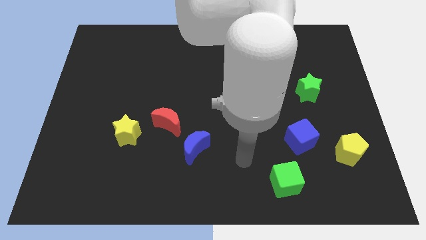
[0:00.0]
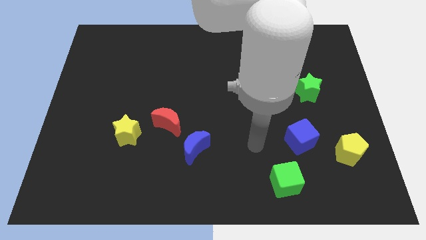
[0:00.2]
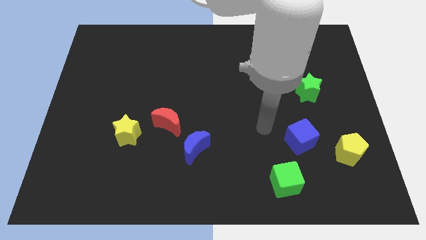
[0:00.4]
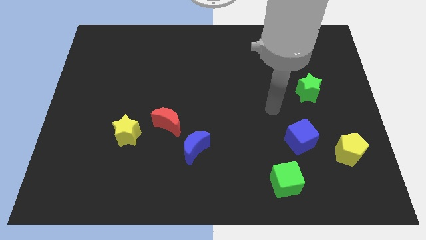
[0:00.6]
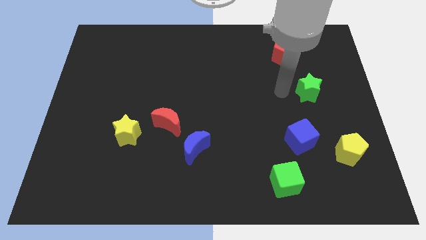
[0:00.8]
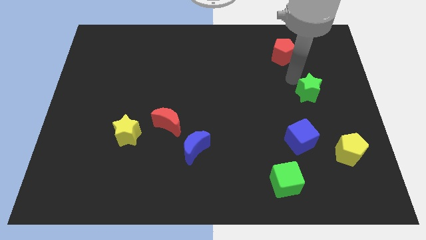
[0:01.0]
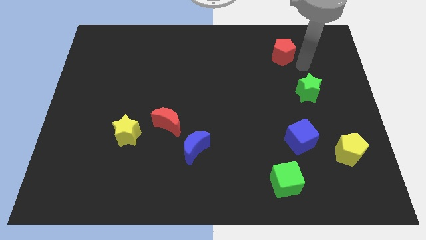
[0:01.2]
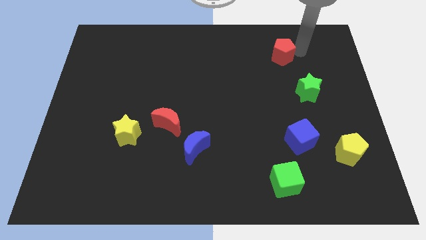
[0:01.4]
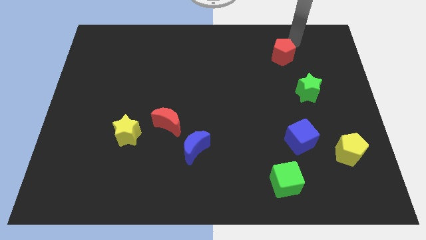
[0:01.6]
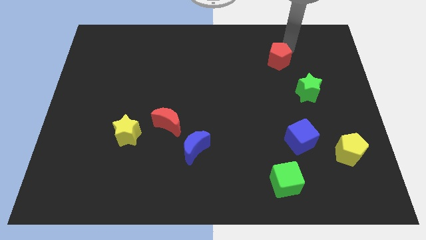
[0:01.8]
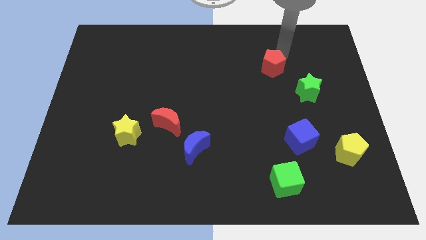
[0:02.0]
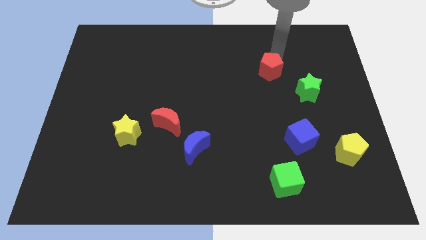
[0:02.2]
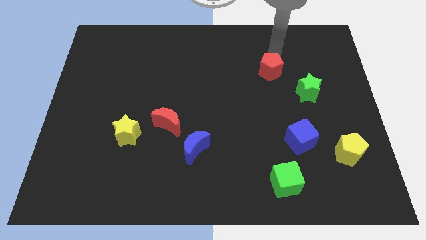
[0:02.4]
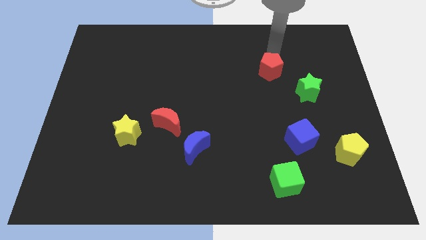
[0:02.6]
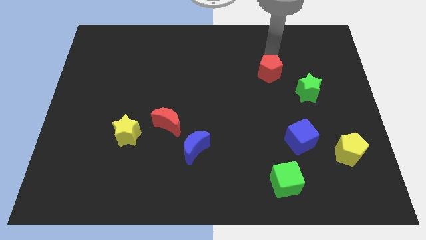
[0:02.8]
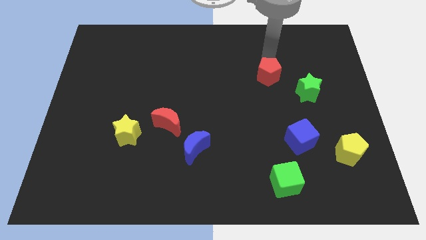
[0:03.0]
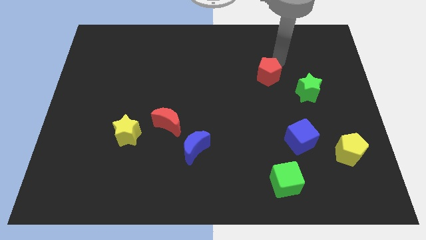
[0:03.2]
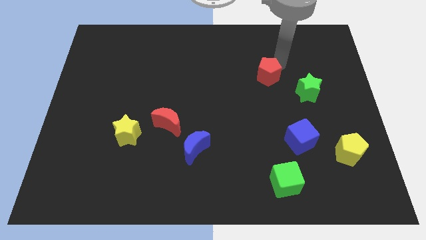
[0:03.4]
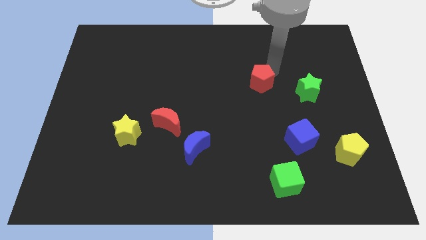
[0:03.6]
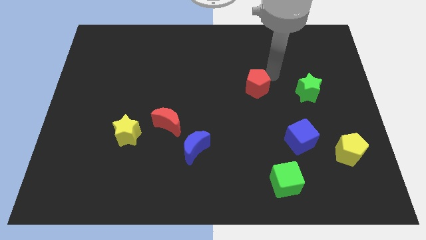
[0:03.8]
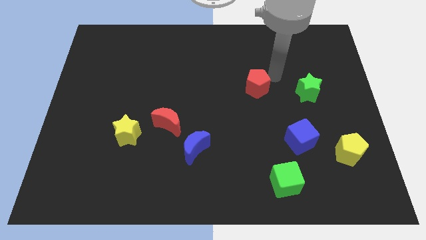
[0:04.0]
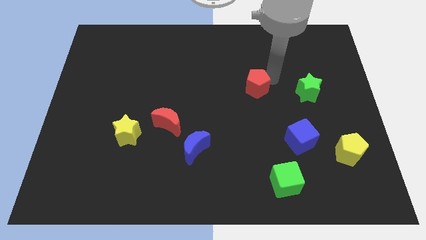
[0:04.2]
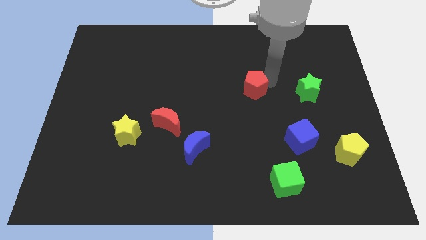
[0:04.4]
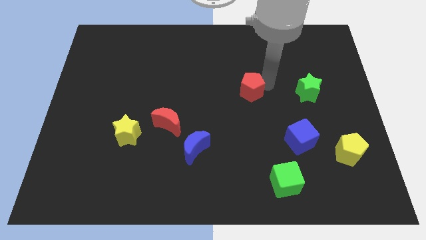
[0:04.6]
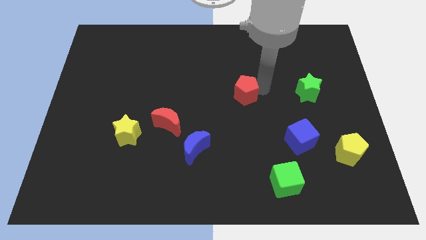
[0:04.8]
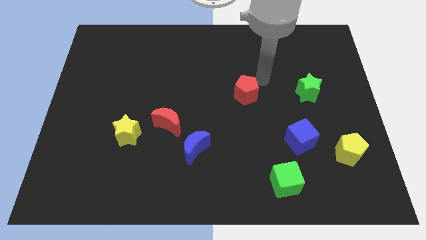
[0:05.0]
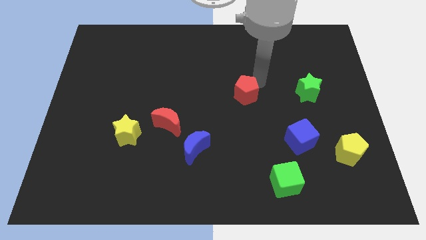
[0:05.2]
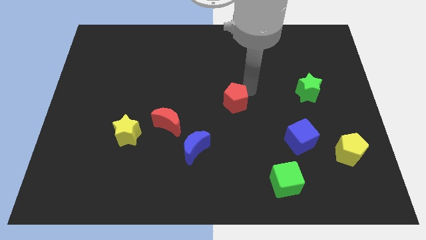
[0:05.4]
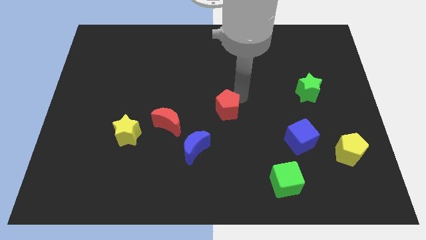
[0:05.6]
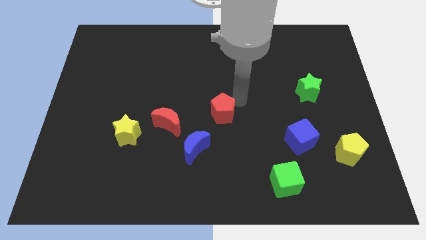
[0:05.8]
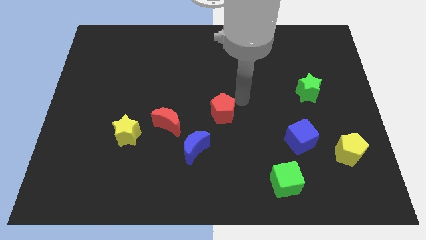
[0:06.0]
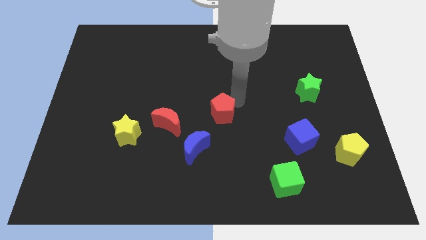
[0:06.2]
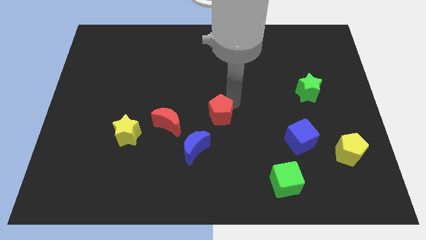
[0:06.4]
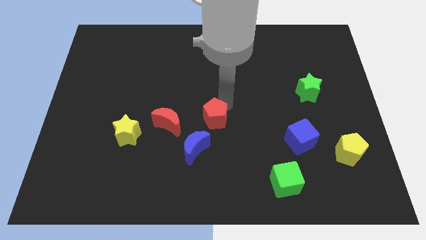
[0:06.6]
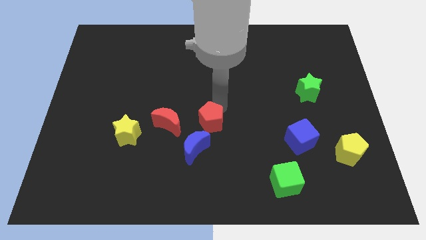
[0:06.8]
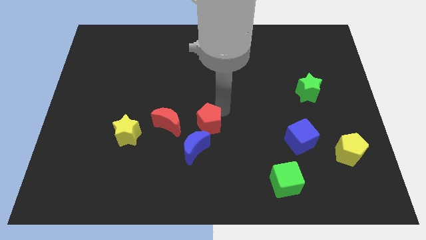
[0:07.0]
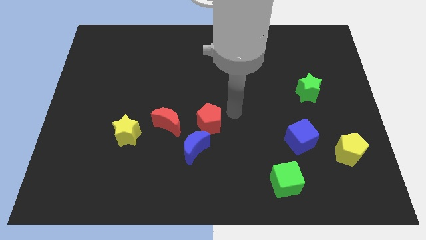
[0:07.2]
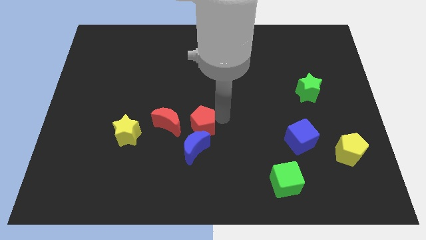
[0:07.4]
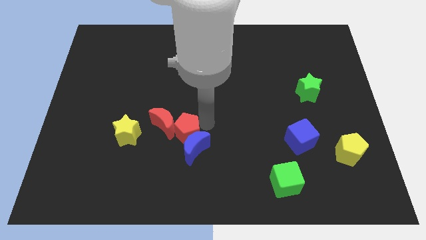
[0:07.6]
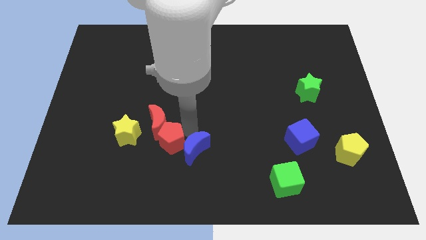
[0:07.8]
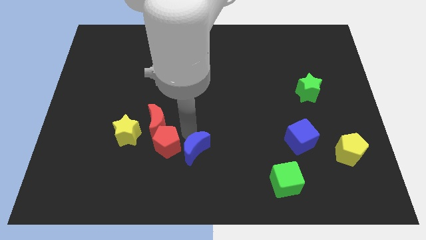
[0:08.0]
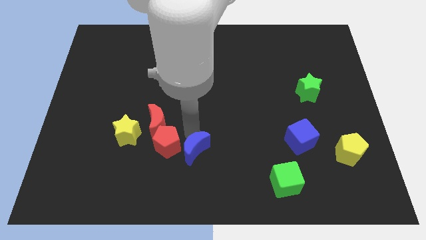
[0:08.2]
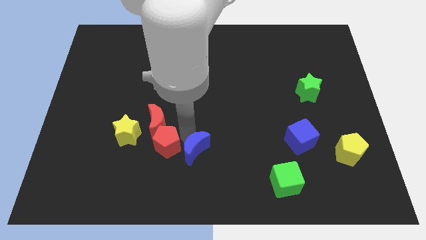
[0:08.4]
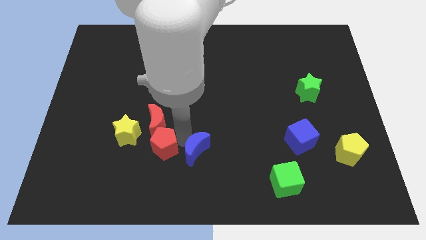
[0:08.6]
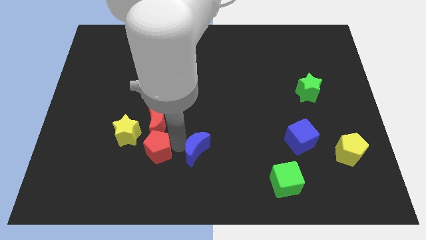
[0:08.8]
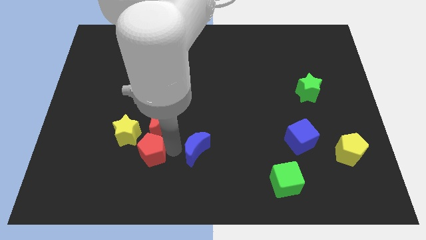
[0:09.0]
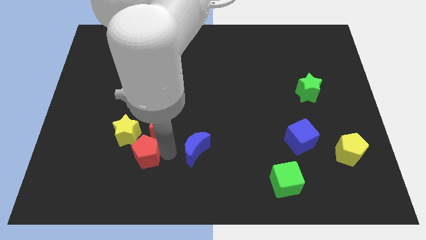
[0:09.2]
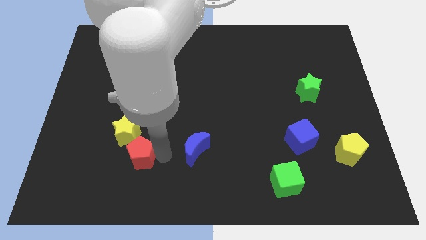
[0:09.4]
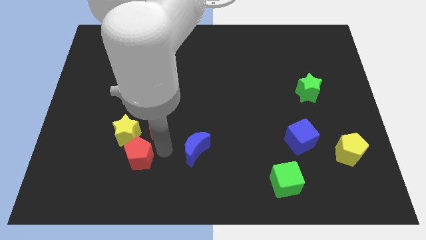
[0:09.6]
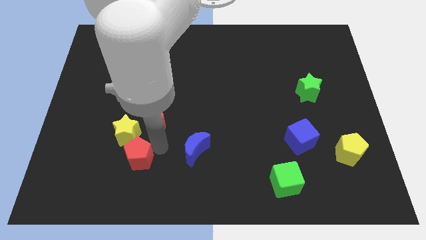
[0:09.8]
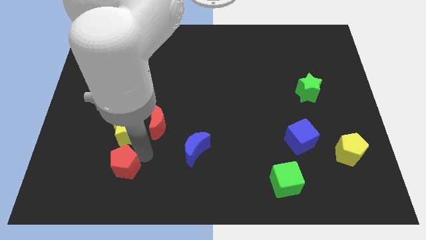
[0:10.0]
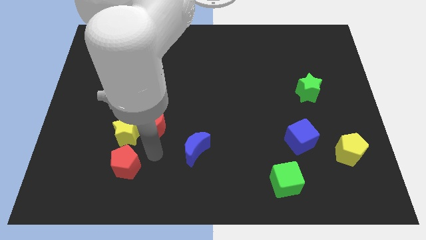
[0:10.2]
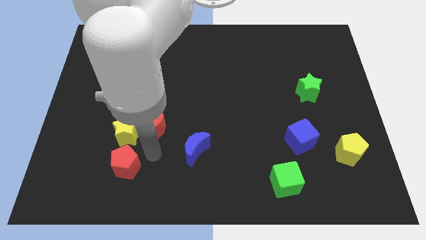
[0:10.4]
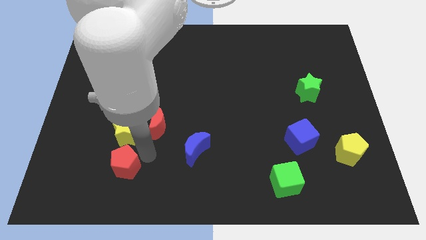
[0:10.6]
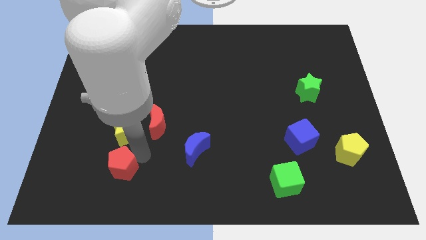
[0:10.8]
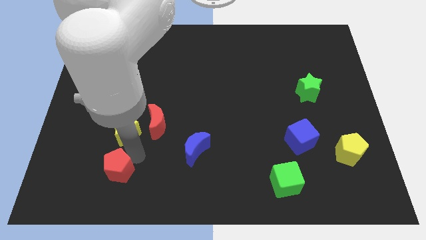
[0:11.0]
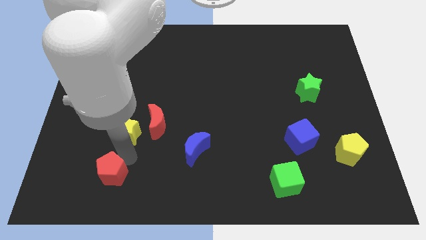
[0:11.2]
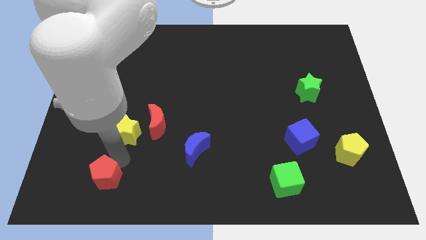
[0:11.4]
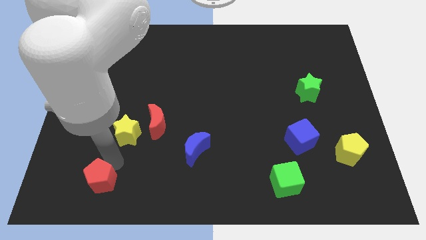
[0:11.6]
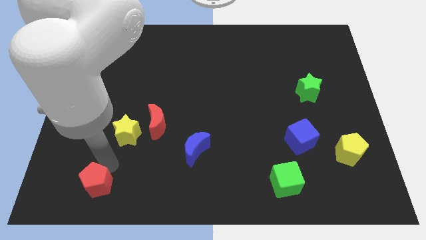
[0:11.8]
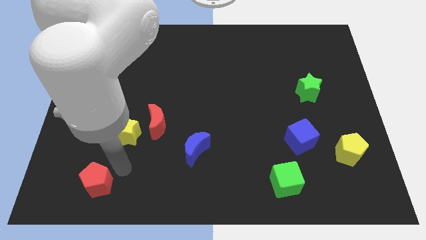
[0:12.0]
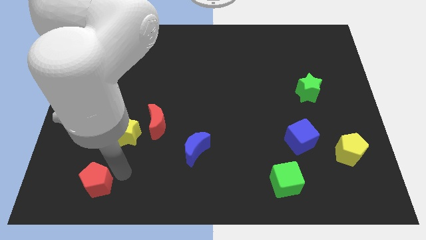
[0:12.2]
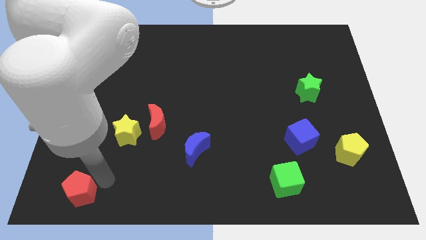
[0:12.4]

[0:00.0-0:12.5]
put the red pentagon to the bottom left of the board
